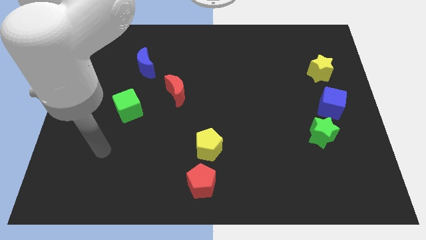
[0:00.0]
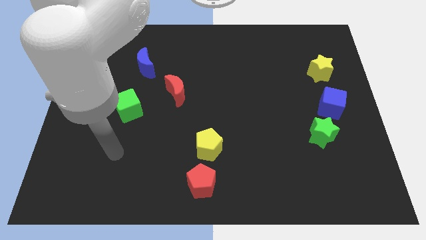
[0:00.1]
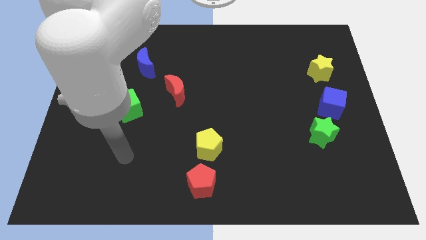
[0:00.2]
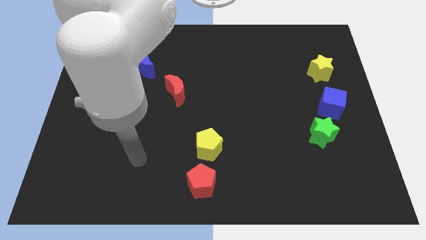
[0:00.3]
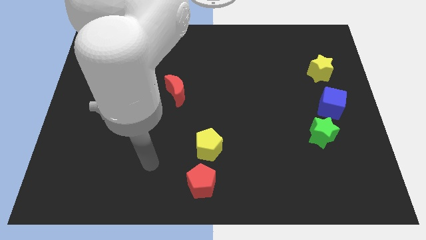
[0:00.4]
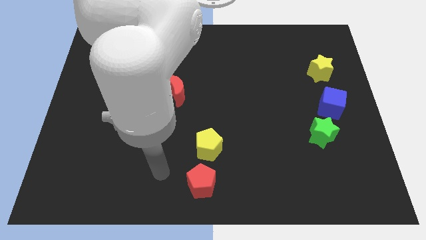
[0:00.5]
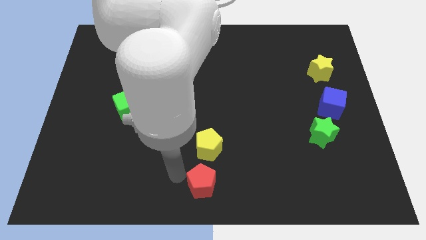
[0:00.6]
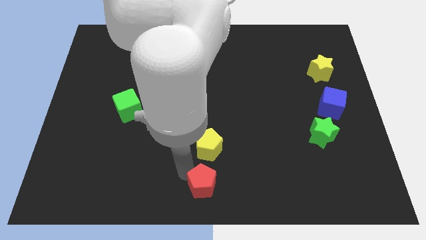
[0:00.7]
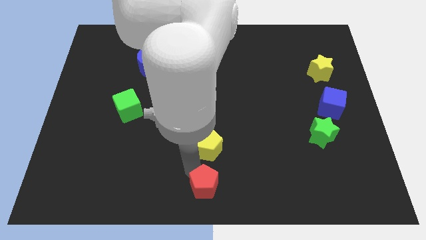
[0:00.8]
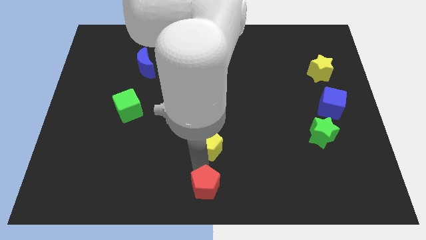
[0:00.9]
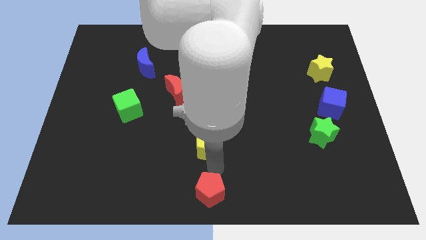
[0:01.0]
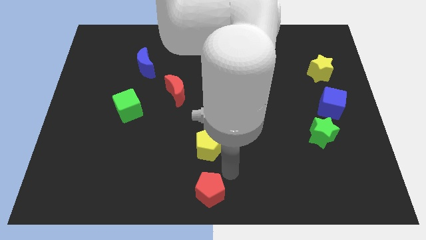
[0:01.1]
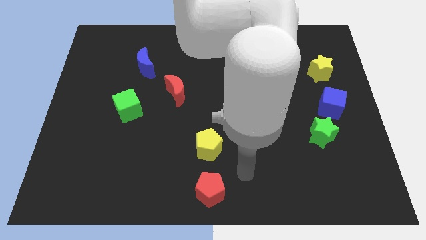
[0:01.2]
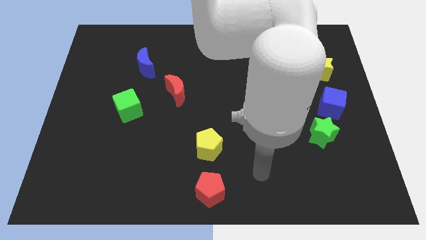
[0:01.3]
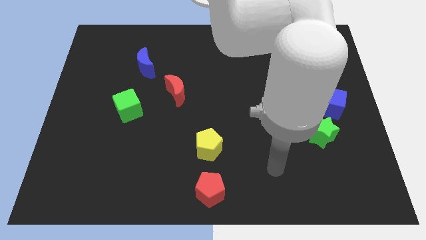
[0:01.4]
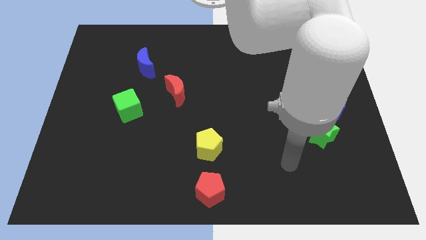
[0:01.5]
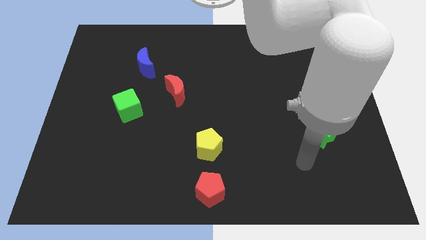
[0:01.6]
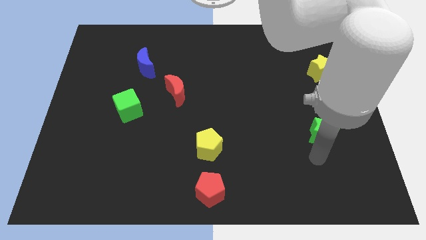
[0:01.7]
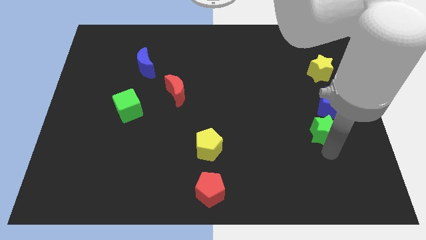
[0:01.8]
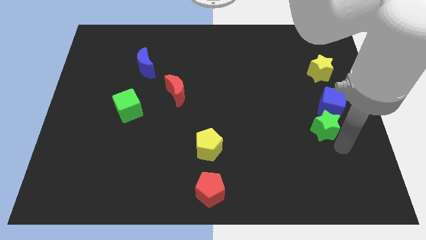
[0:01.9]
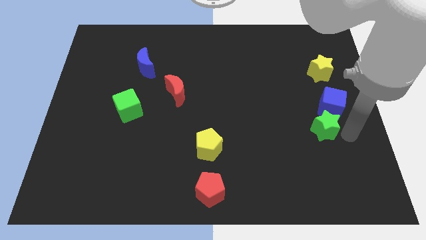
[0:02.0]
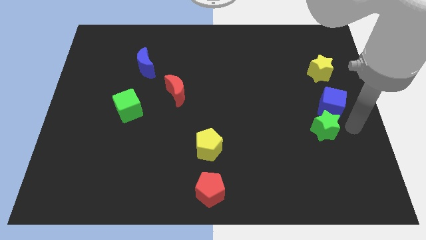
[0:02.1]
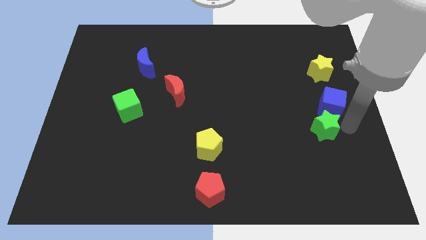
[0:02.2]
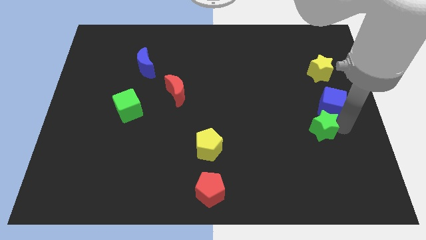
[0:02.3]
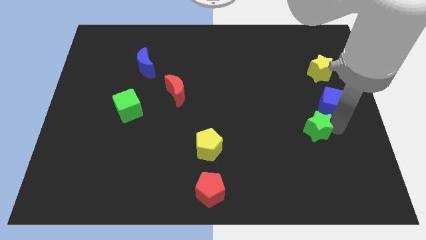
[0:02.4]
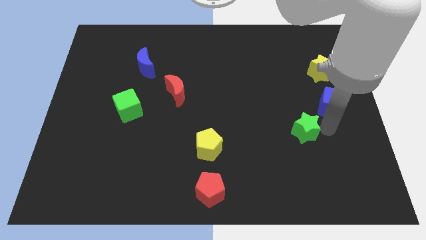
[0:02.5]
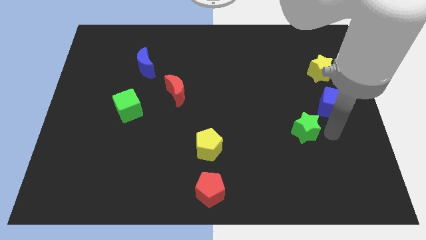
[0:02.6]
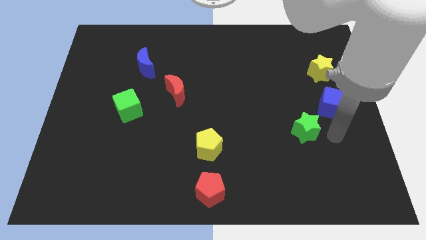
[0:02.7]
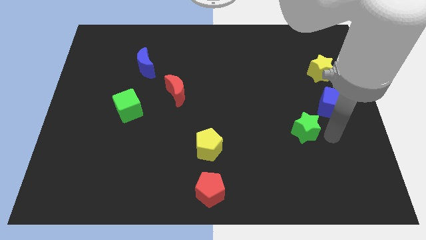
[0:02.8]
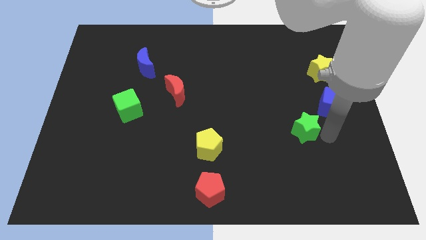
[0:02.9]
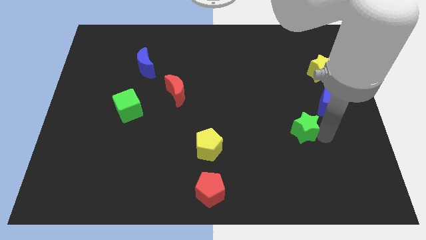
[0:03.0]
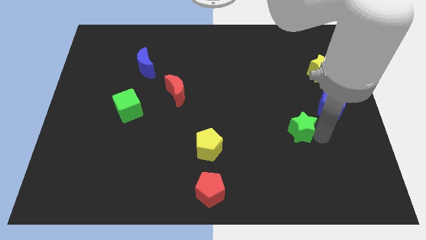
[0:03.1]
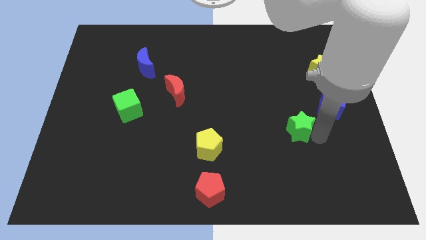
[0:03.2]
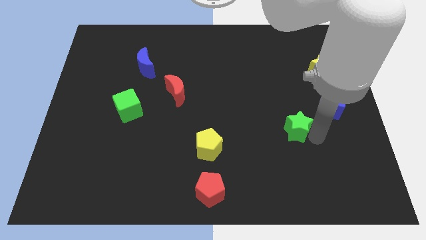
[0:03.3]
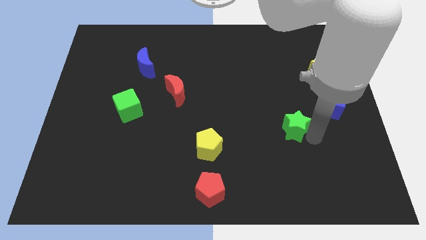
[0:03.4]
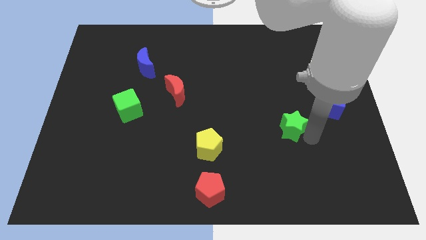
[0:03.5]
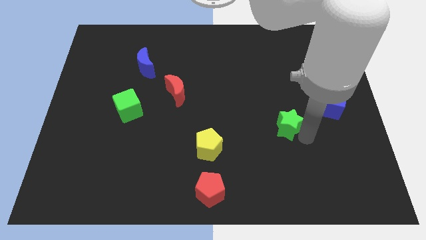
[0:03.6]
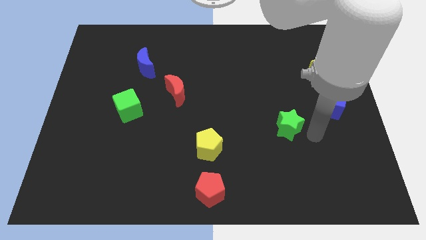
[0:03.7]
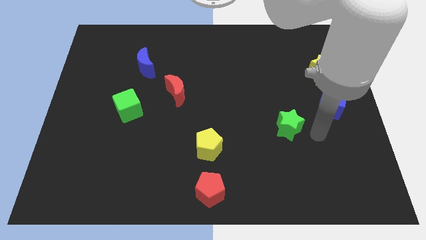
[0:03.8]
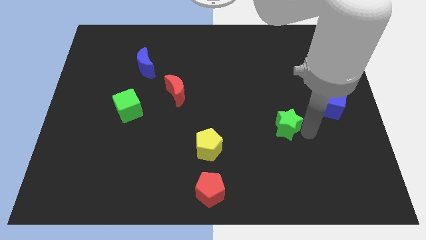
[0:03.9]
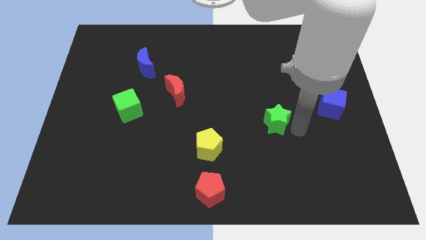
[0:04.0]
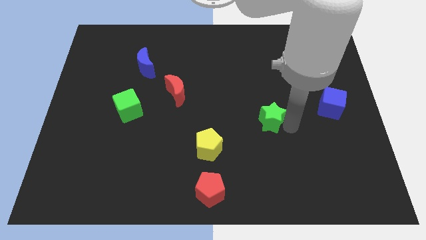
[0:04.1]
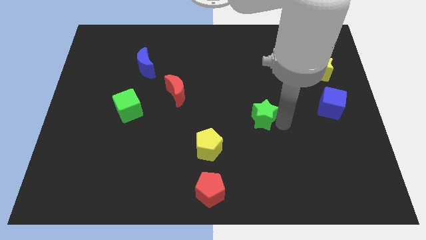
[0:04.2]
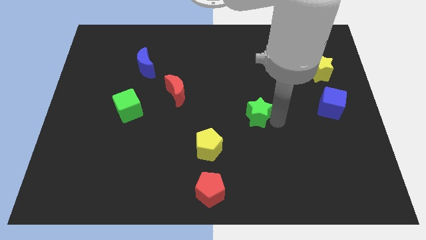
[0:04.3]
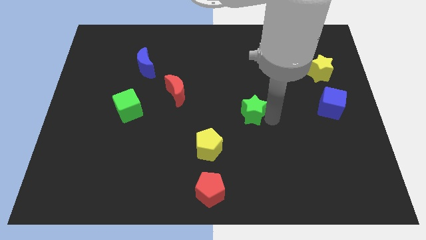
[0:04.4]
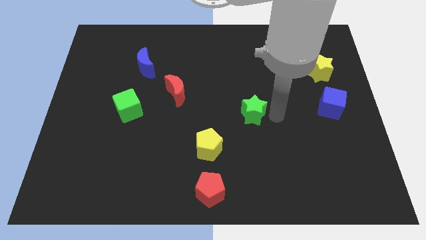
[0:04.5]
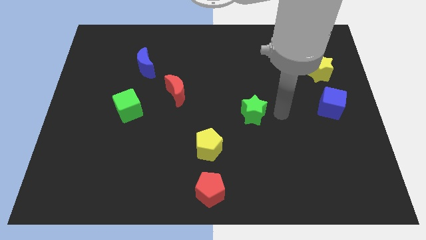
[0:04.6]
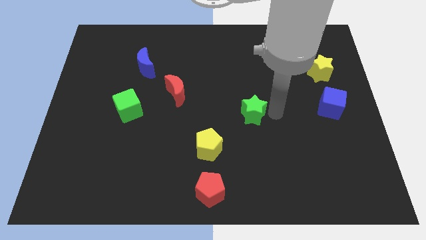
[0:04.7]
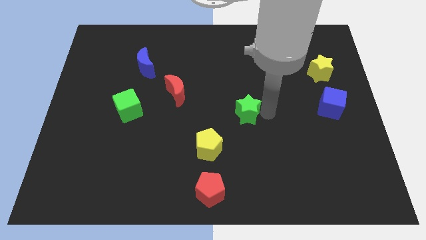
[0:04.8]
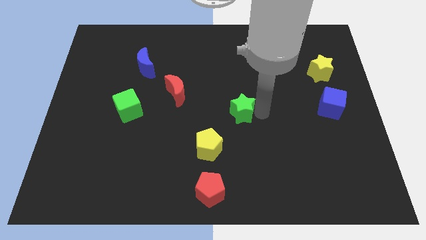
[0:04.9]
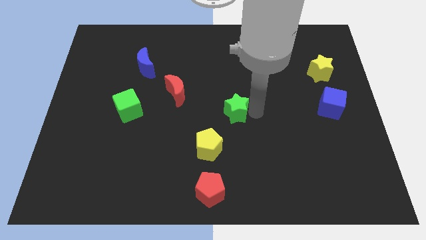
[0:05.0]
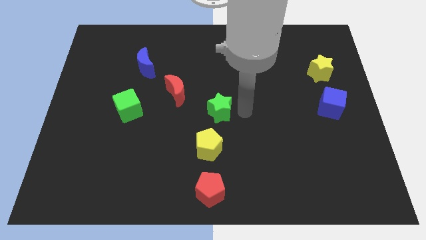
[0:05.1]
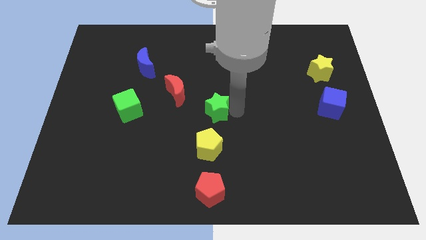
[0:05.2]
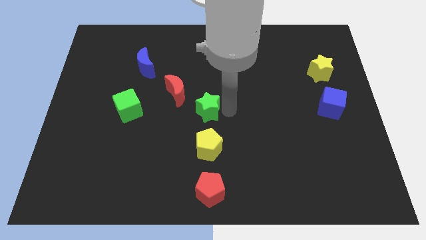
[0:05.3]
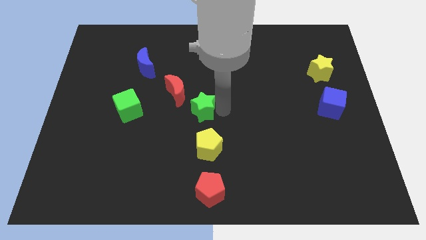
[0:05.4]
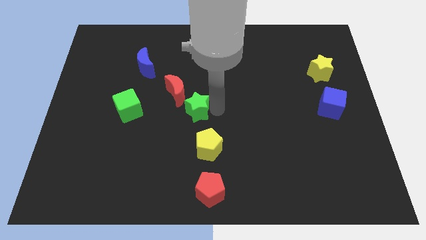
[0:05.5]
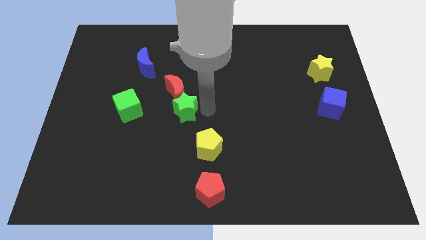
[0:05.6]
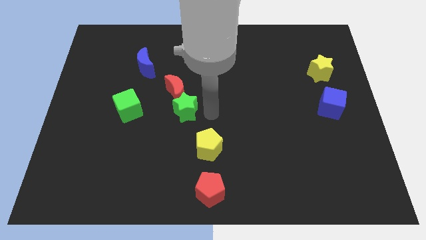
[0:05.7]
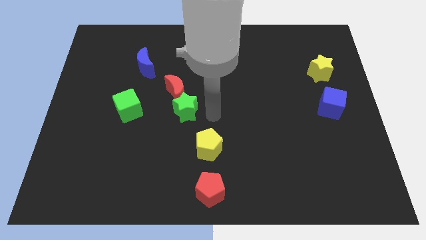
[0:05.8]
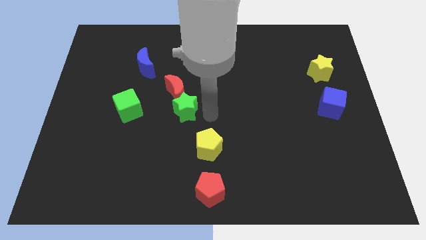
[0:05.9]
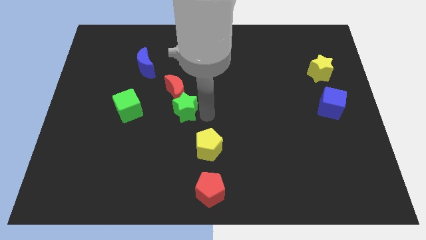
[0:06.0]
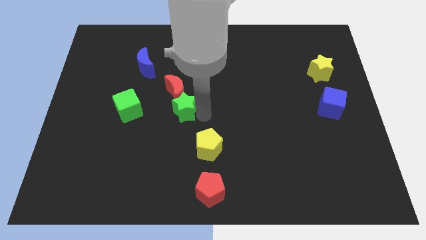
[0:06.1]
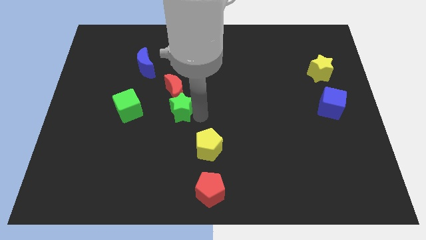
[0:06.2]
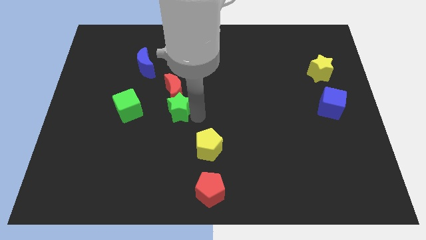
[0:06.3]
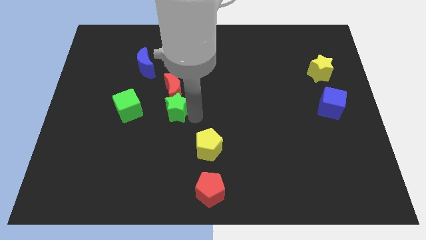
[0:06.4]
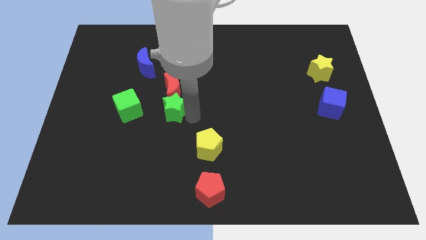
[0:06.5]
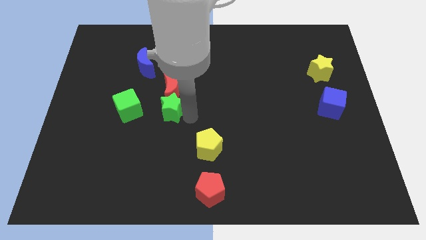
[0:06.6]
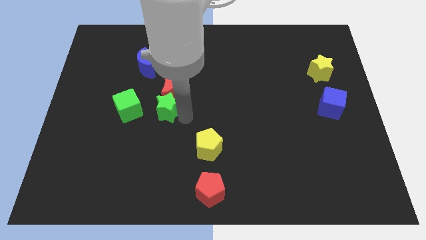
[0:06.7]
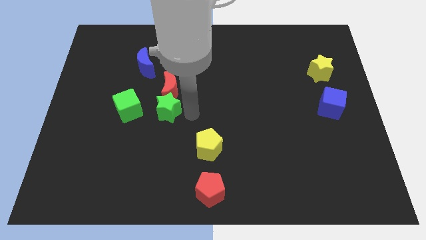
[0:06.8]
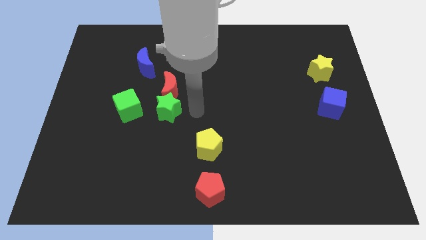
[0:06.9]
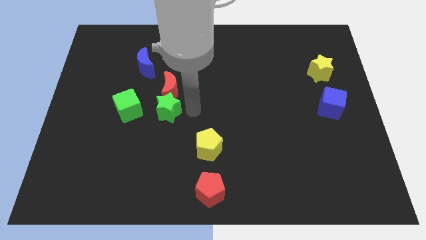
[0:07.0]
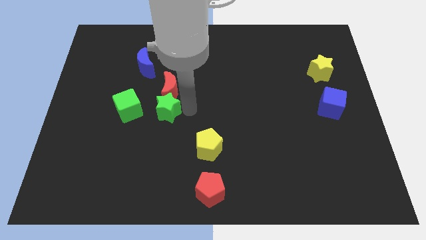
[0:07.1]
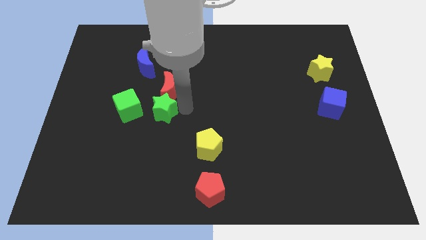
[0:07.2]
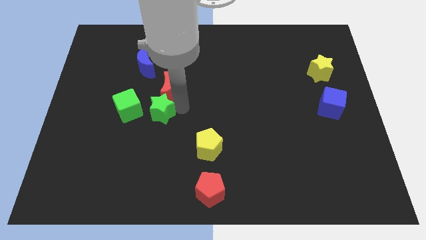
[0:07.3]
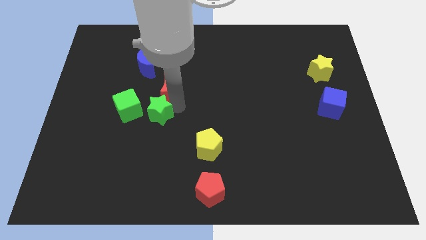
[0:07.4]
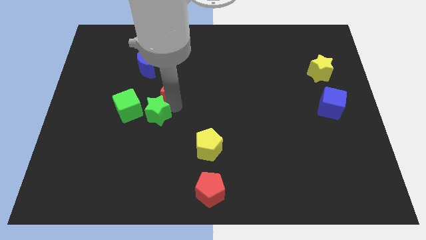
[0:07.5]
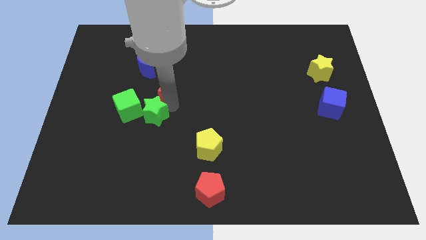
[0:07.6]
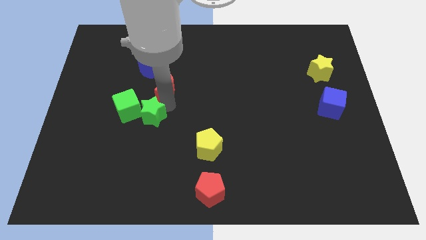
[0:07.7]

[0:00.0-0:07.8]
put the green star next to the green cube
